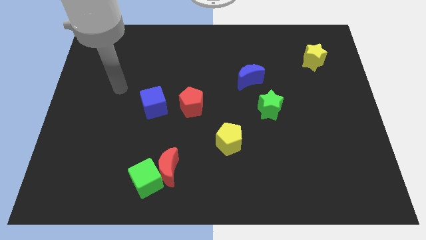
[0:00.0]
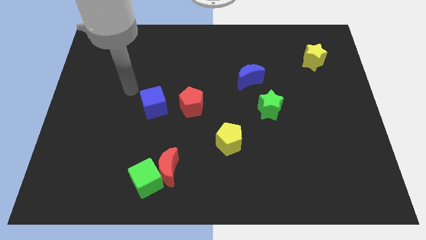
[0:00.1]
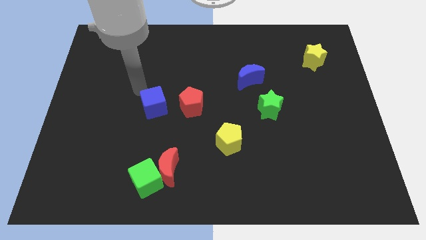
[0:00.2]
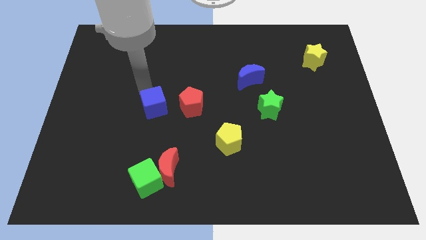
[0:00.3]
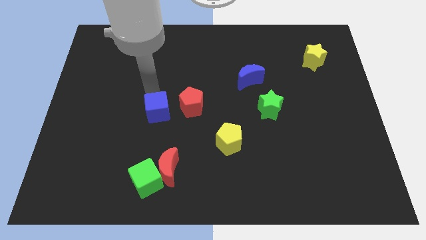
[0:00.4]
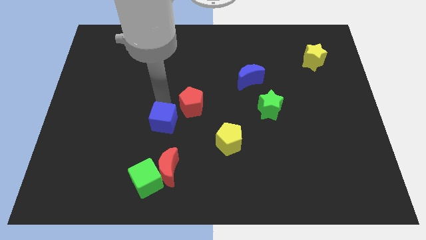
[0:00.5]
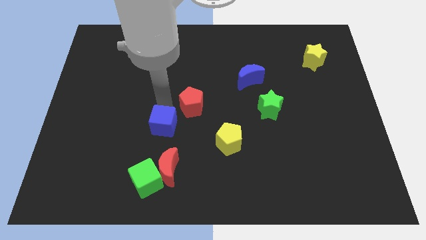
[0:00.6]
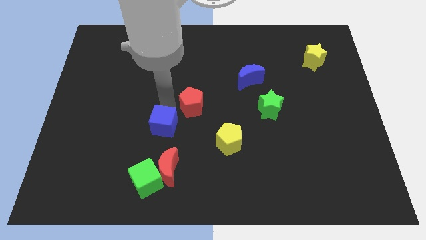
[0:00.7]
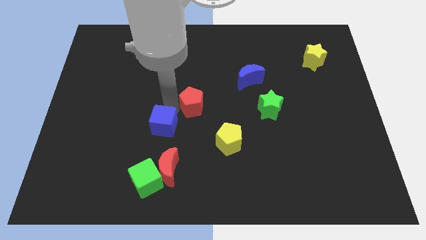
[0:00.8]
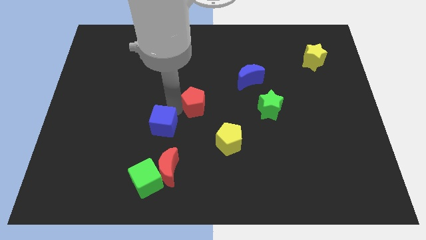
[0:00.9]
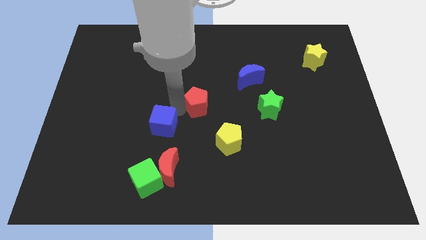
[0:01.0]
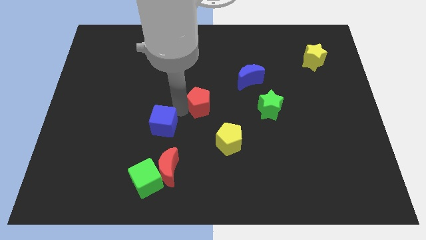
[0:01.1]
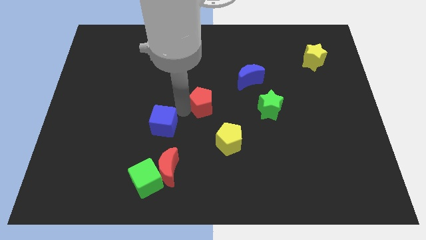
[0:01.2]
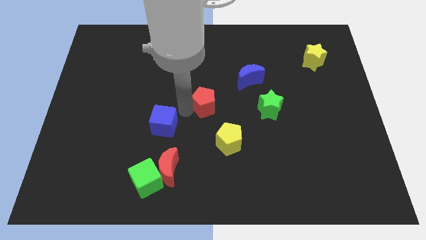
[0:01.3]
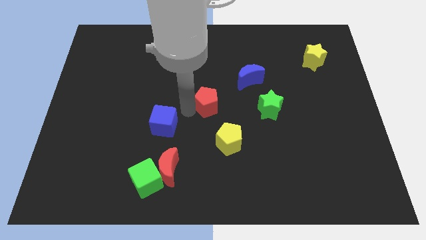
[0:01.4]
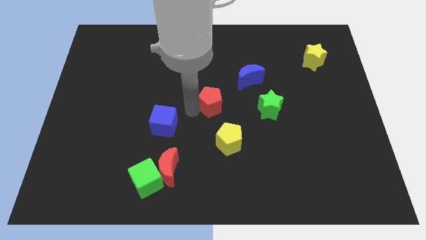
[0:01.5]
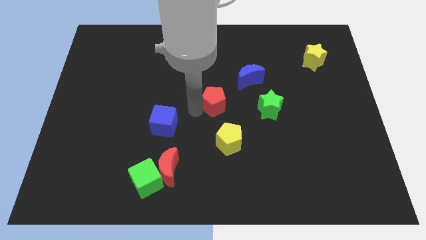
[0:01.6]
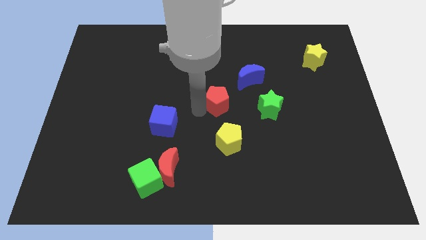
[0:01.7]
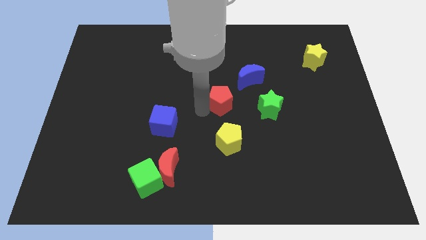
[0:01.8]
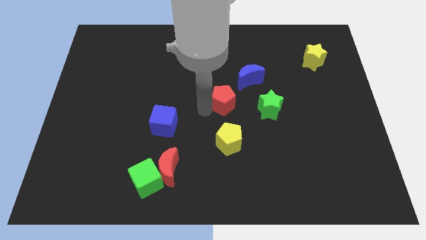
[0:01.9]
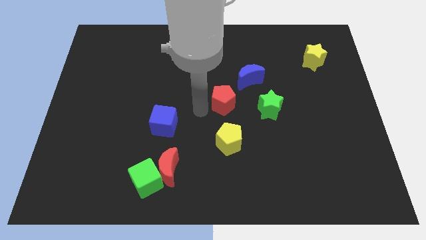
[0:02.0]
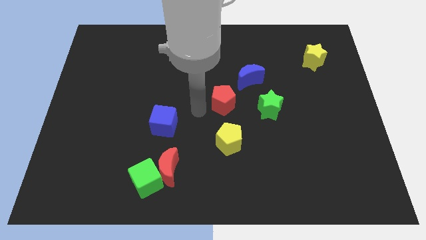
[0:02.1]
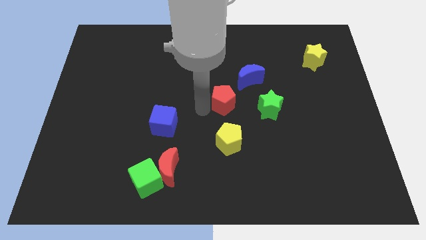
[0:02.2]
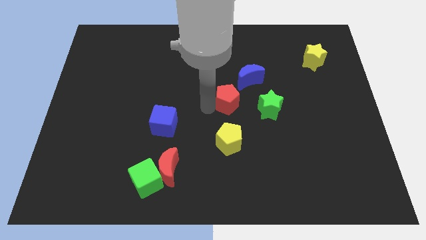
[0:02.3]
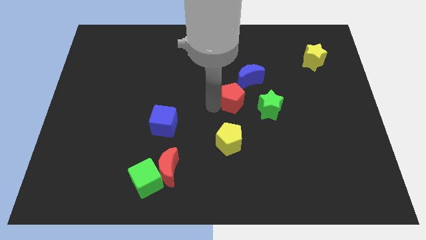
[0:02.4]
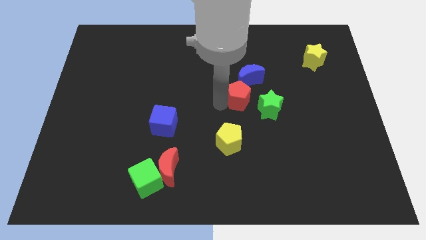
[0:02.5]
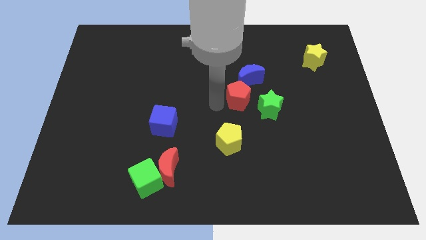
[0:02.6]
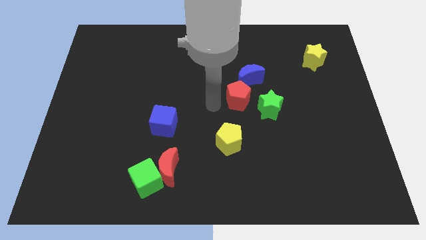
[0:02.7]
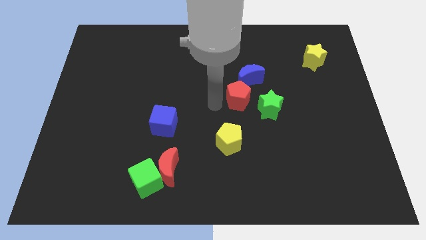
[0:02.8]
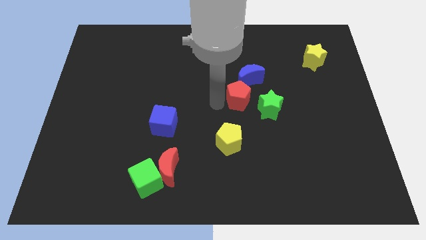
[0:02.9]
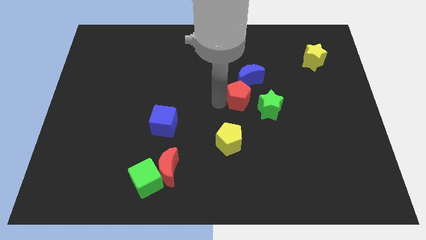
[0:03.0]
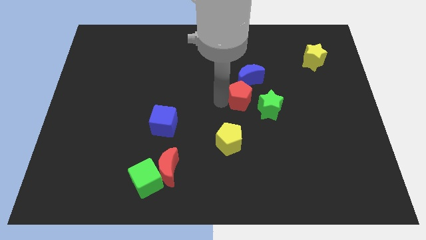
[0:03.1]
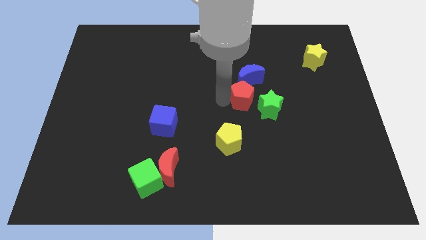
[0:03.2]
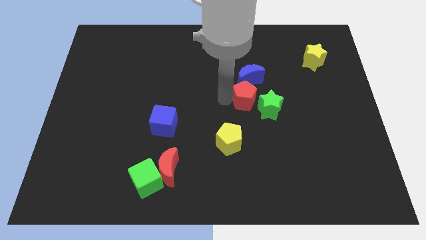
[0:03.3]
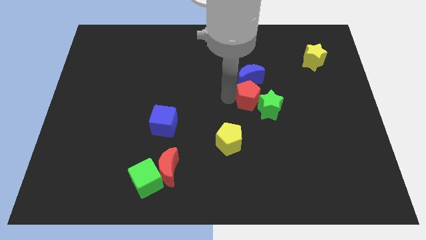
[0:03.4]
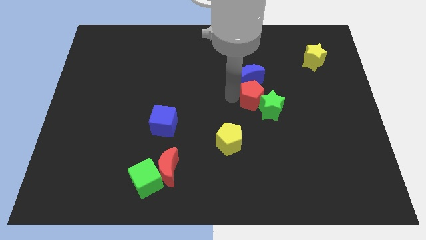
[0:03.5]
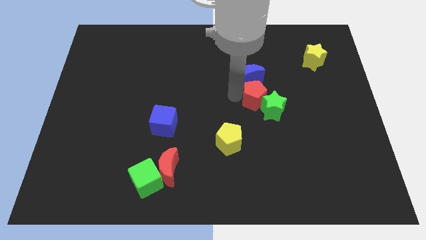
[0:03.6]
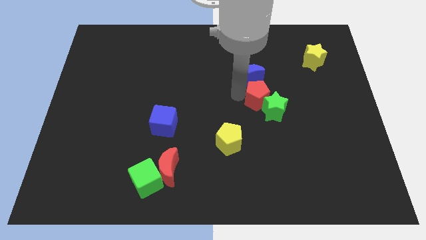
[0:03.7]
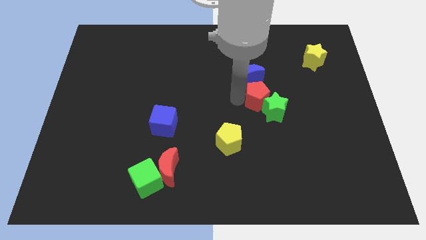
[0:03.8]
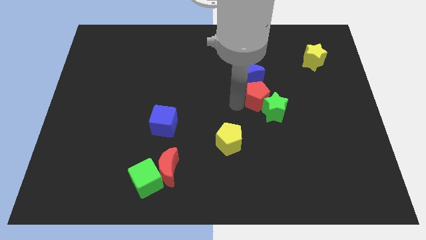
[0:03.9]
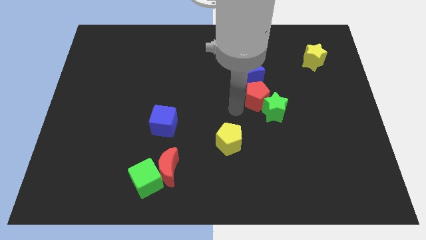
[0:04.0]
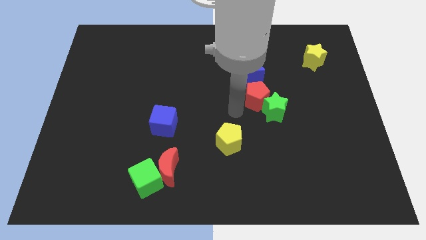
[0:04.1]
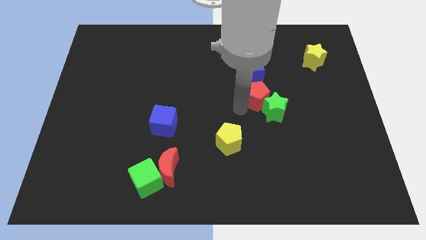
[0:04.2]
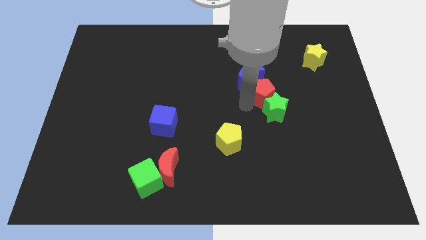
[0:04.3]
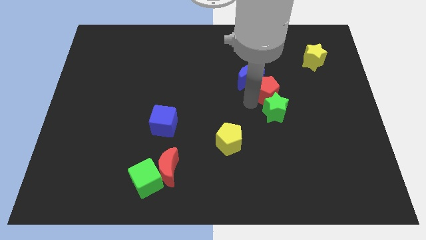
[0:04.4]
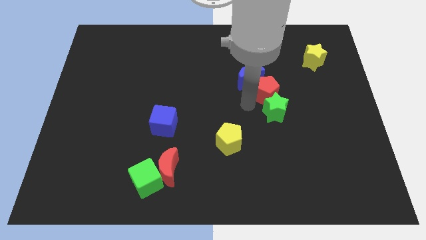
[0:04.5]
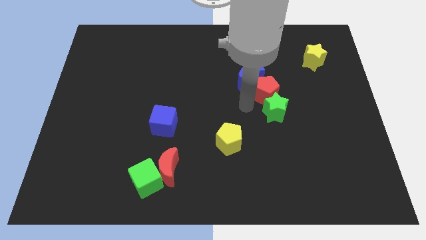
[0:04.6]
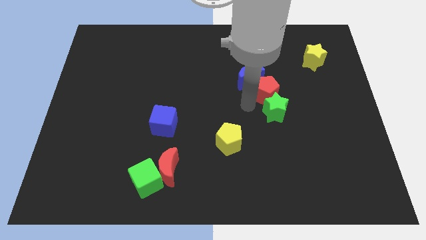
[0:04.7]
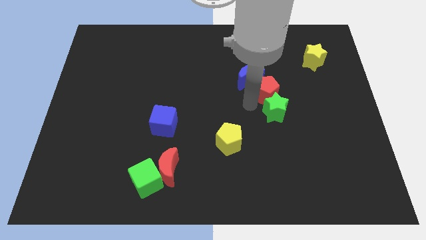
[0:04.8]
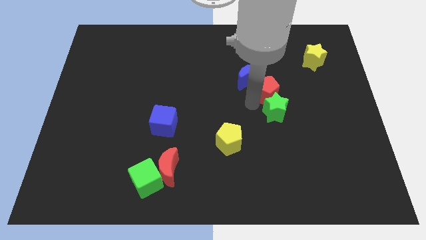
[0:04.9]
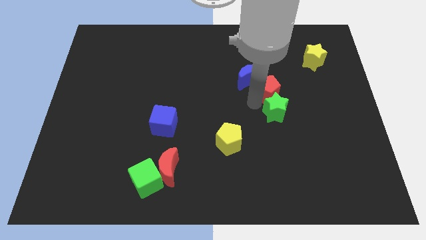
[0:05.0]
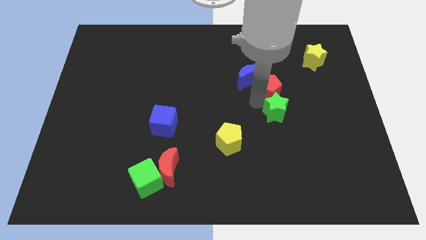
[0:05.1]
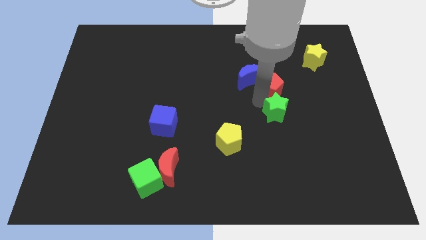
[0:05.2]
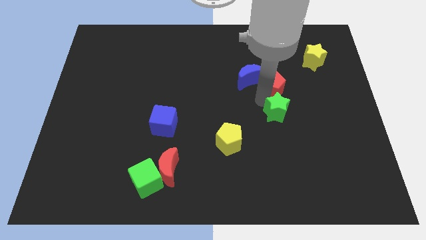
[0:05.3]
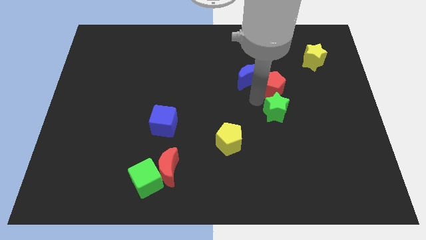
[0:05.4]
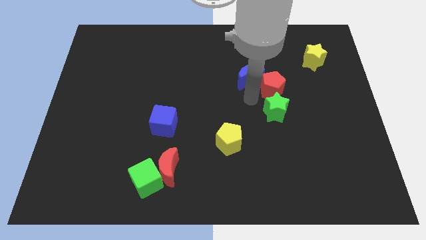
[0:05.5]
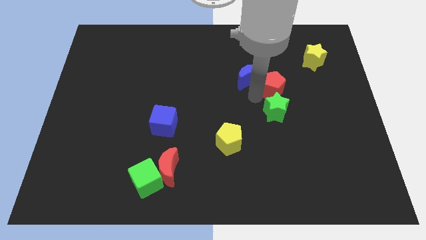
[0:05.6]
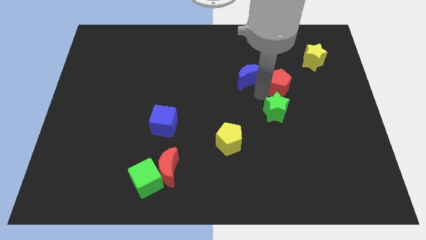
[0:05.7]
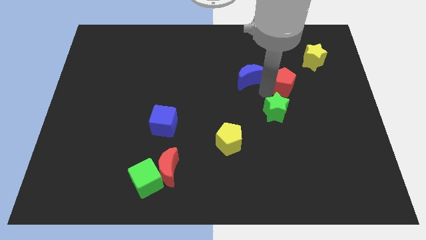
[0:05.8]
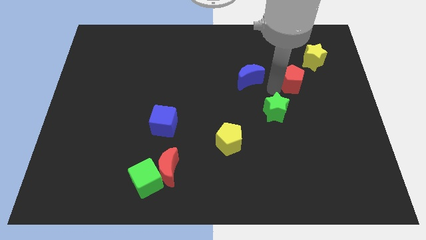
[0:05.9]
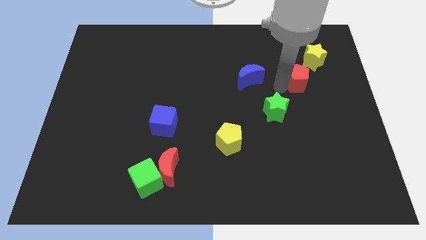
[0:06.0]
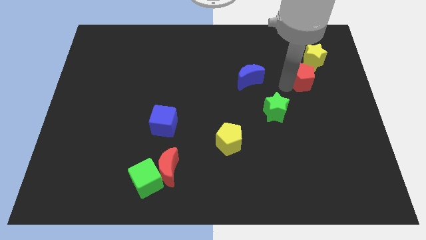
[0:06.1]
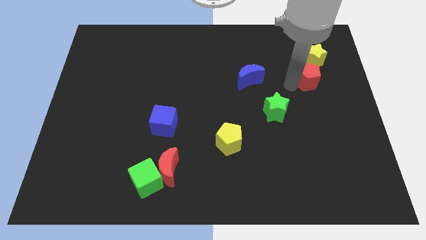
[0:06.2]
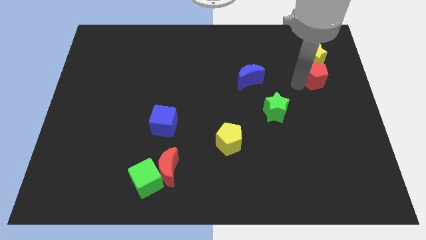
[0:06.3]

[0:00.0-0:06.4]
put the red pentagon towards the yellow star
